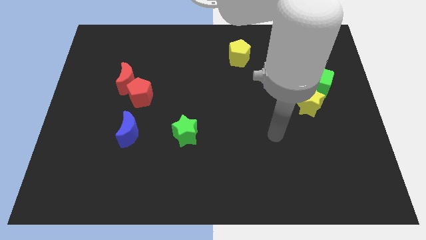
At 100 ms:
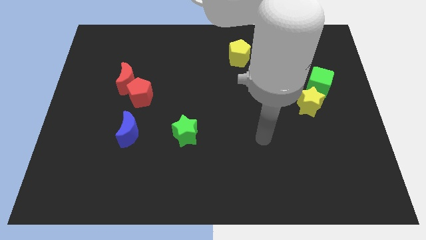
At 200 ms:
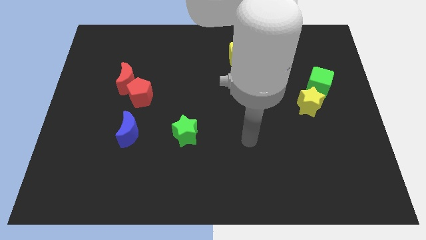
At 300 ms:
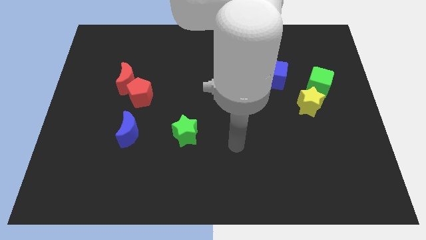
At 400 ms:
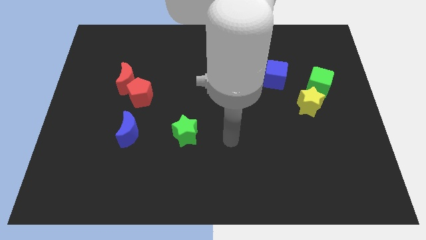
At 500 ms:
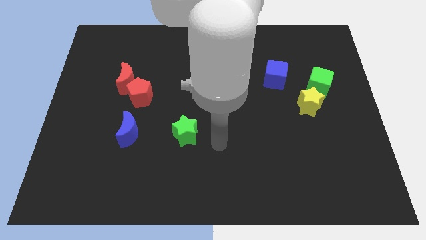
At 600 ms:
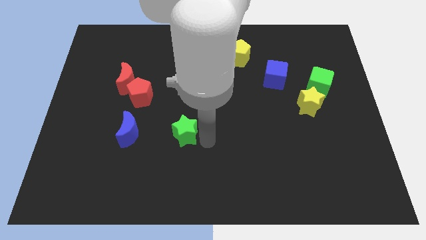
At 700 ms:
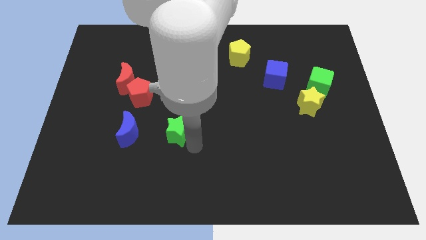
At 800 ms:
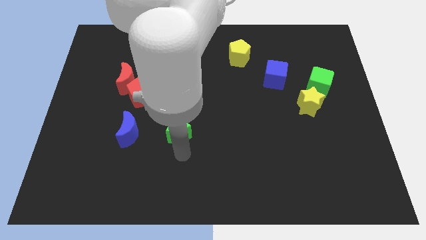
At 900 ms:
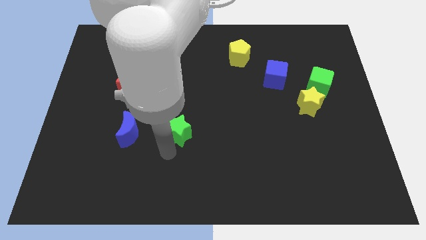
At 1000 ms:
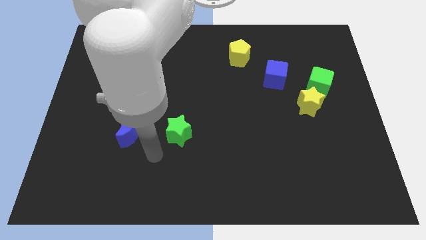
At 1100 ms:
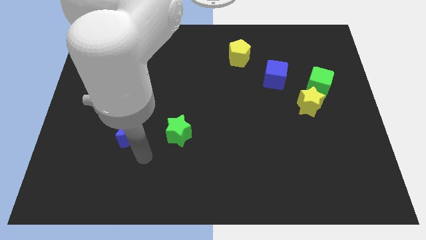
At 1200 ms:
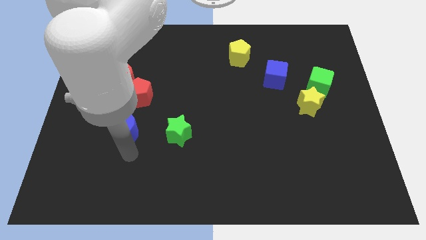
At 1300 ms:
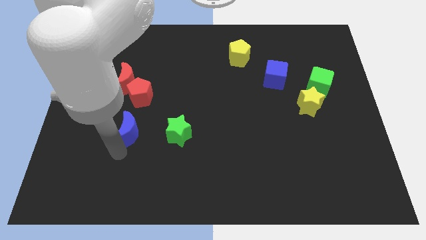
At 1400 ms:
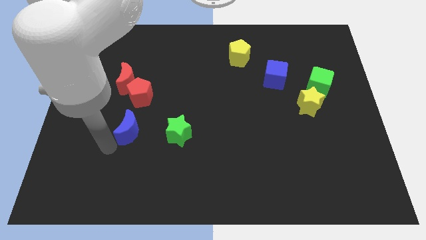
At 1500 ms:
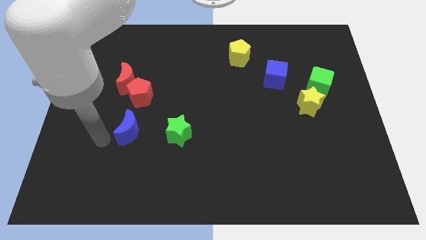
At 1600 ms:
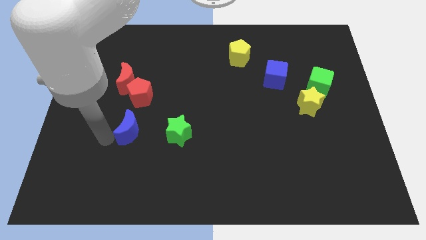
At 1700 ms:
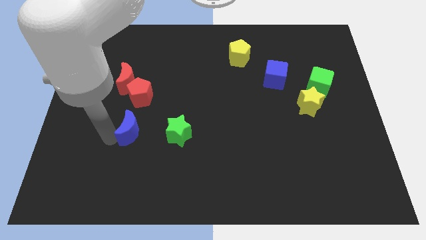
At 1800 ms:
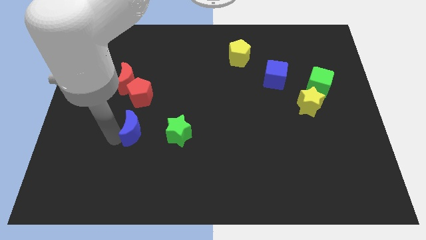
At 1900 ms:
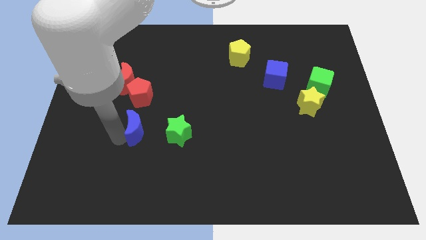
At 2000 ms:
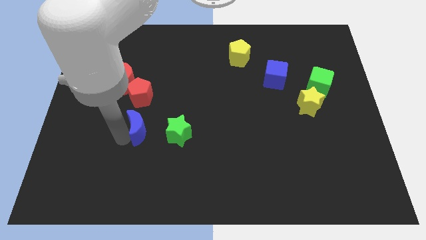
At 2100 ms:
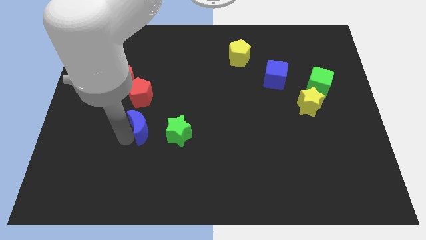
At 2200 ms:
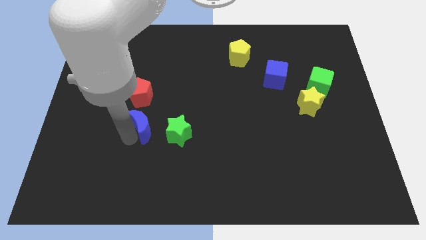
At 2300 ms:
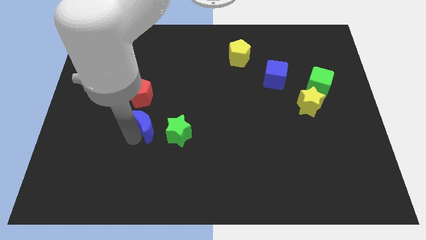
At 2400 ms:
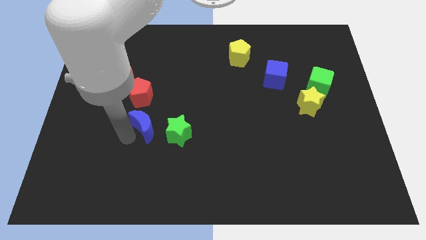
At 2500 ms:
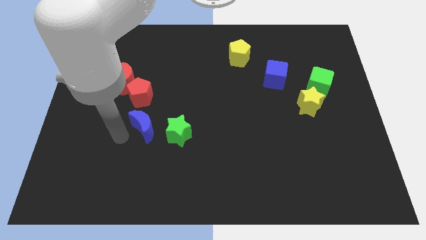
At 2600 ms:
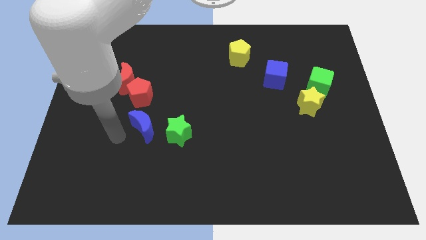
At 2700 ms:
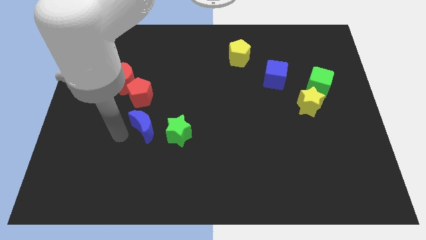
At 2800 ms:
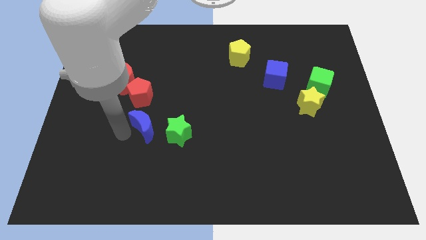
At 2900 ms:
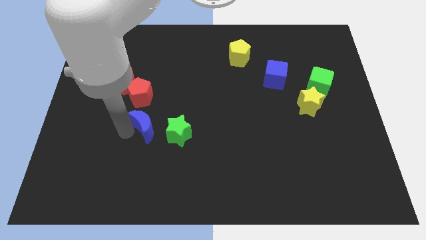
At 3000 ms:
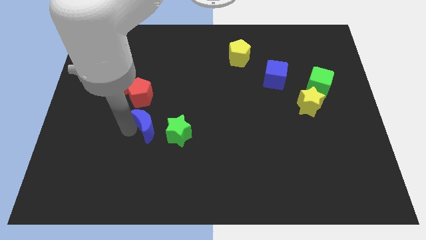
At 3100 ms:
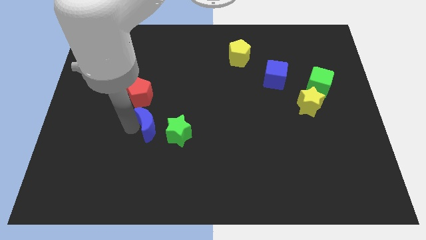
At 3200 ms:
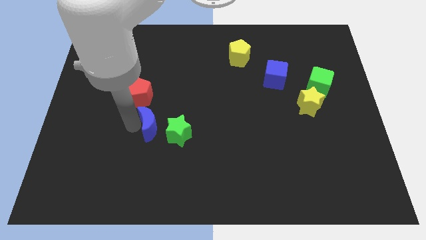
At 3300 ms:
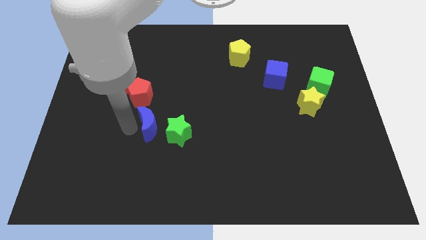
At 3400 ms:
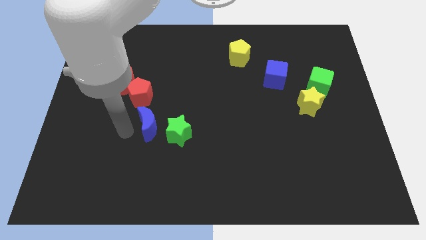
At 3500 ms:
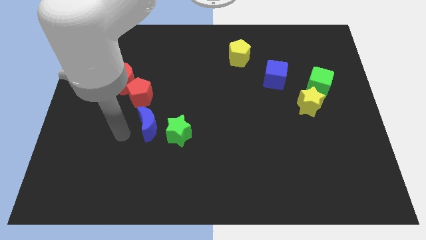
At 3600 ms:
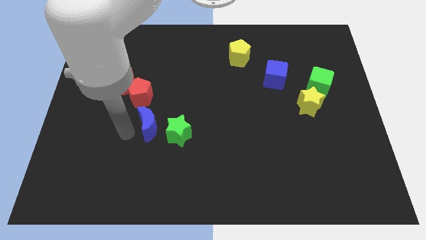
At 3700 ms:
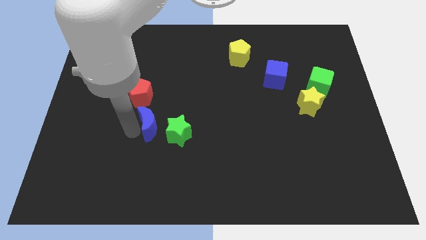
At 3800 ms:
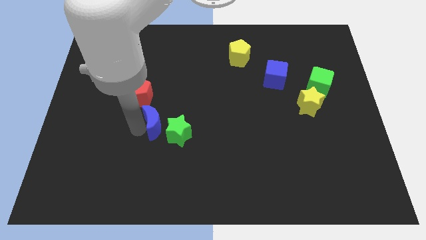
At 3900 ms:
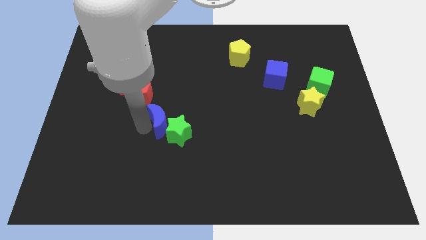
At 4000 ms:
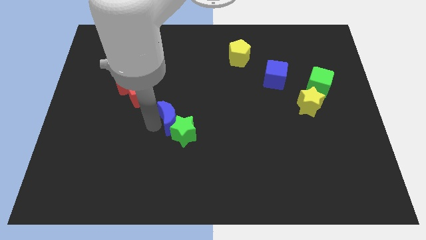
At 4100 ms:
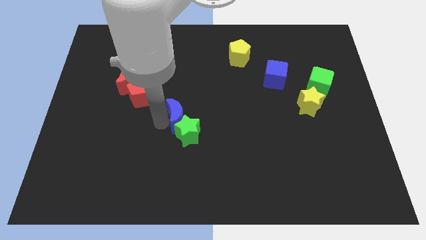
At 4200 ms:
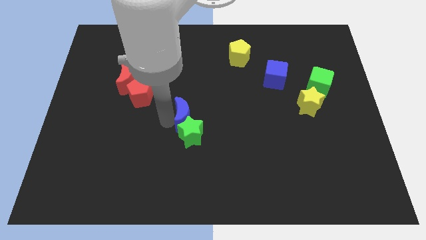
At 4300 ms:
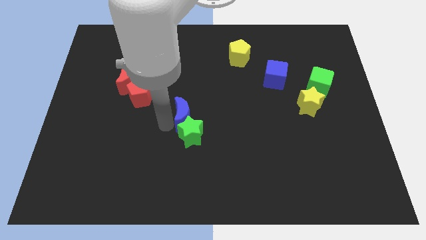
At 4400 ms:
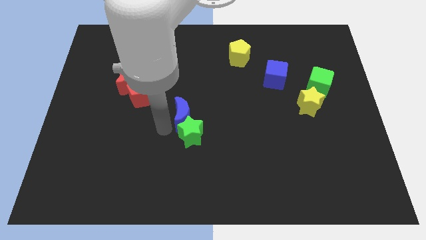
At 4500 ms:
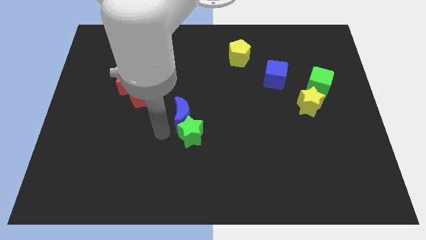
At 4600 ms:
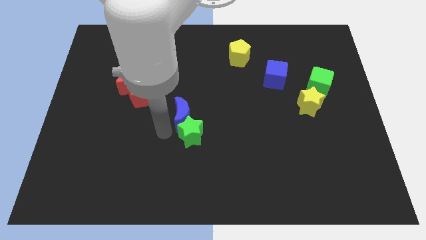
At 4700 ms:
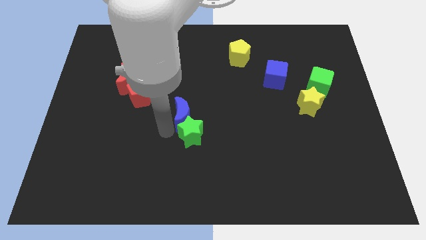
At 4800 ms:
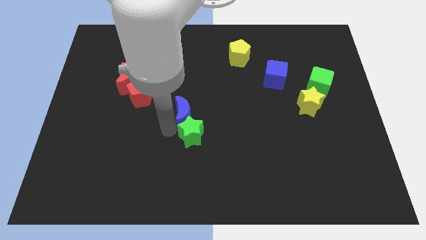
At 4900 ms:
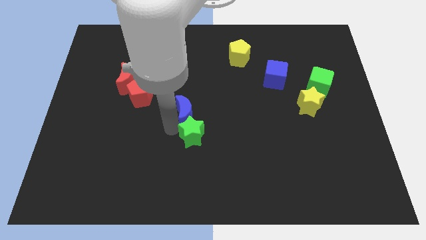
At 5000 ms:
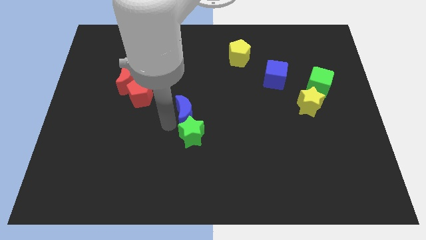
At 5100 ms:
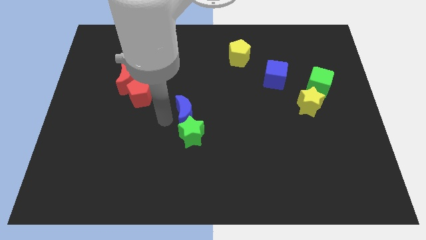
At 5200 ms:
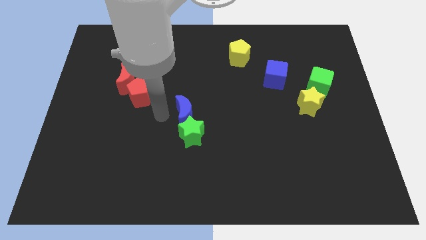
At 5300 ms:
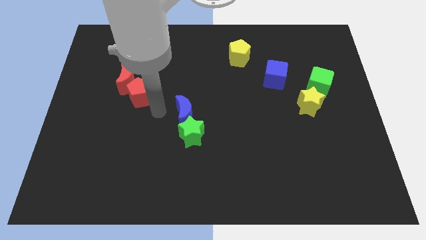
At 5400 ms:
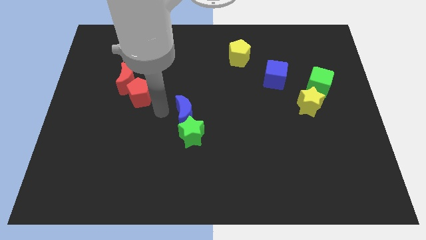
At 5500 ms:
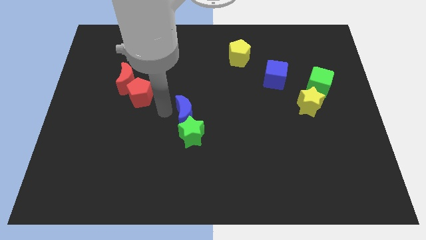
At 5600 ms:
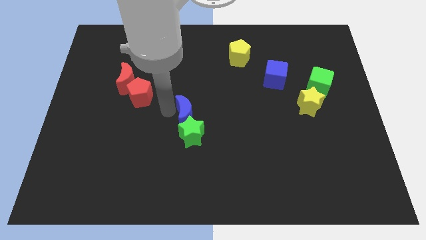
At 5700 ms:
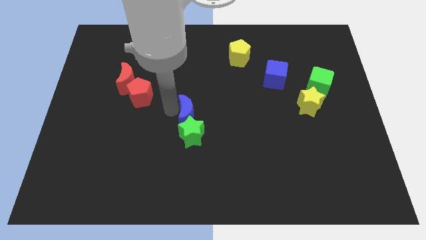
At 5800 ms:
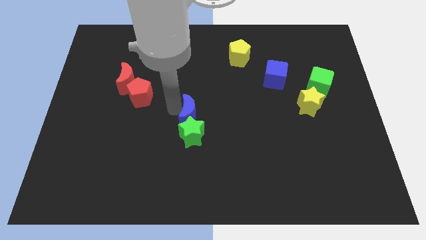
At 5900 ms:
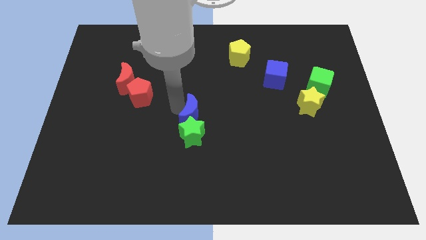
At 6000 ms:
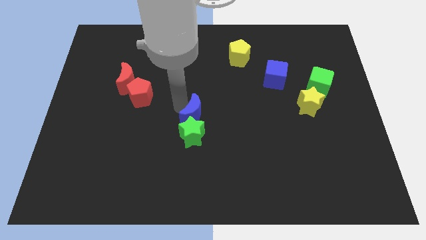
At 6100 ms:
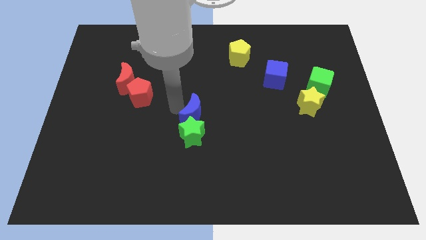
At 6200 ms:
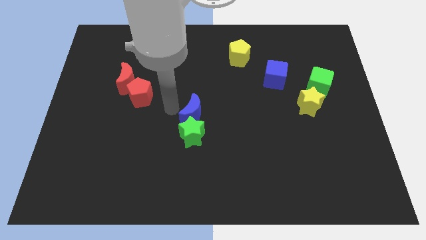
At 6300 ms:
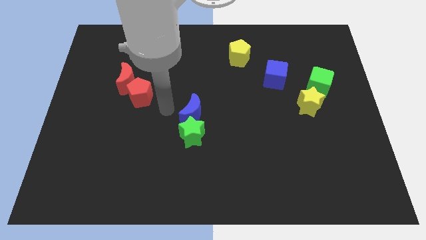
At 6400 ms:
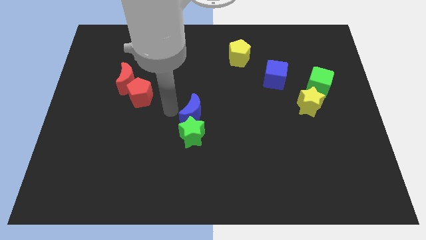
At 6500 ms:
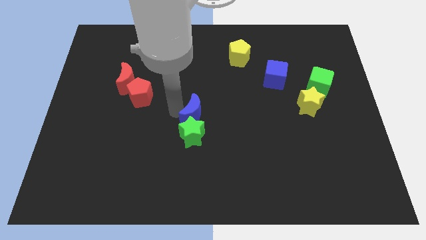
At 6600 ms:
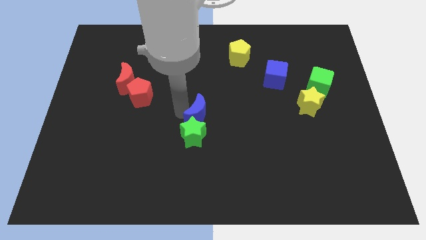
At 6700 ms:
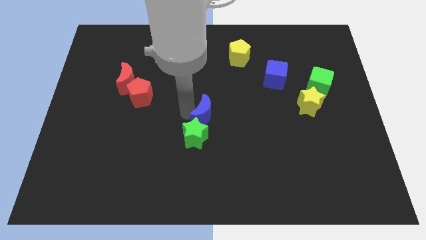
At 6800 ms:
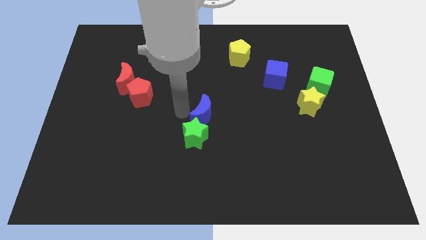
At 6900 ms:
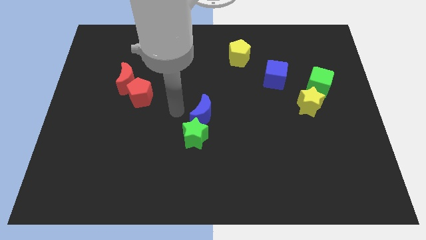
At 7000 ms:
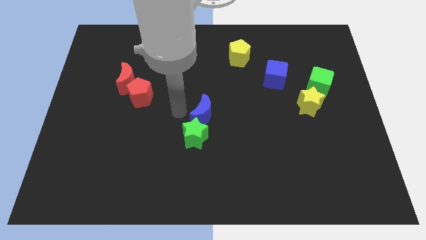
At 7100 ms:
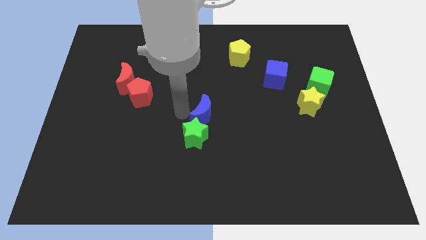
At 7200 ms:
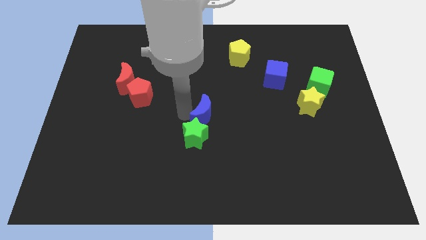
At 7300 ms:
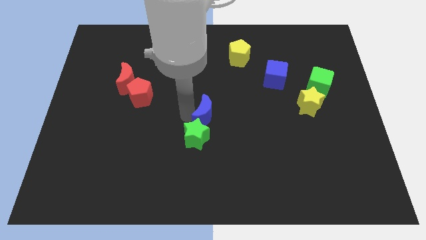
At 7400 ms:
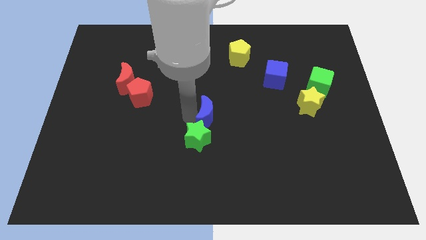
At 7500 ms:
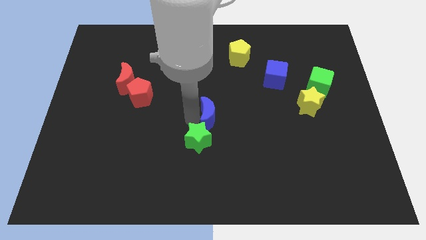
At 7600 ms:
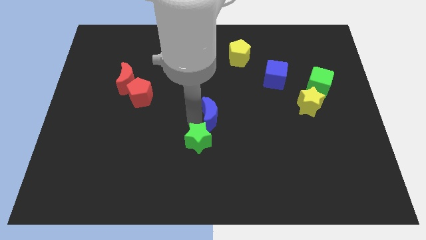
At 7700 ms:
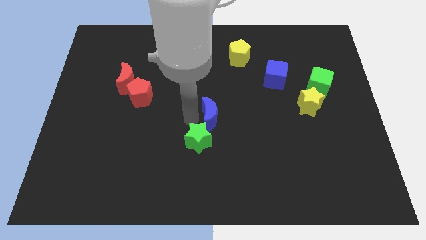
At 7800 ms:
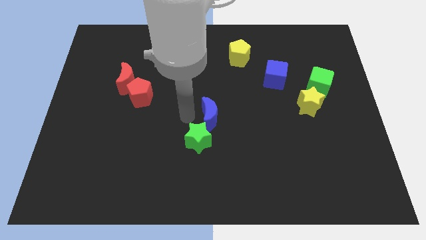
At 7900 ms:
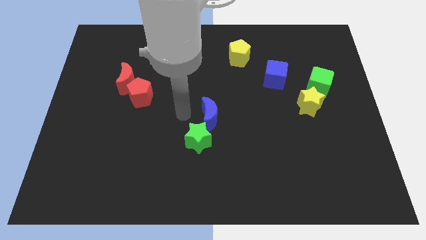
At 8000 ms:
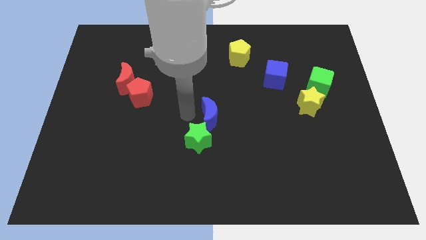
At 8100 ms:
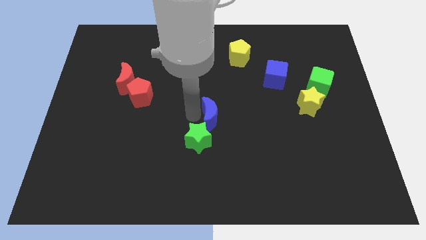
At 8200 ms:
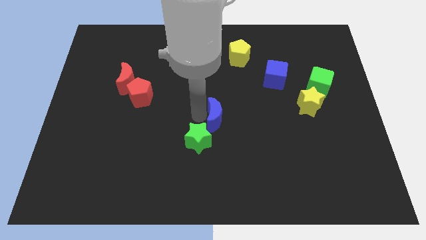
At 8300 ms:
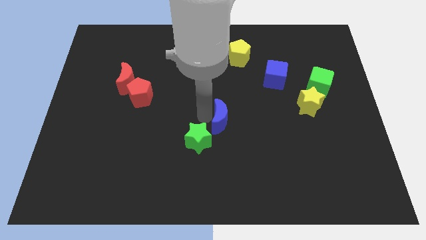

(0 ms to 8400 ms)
push the blue moon to the right
